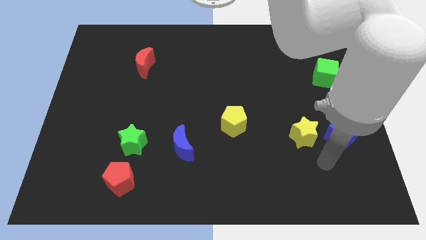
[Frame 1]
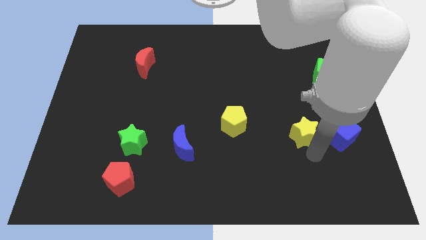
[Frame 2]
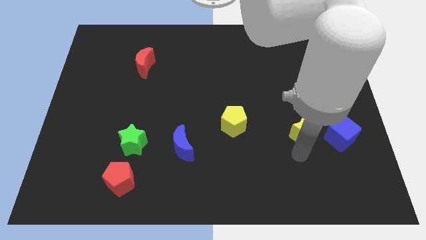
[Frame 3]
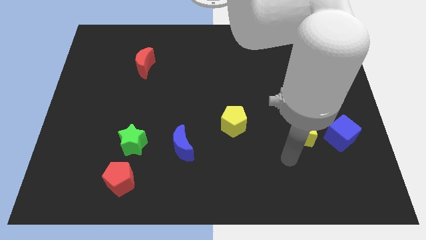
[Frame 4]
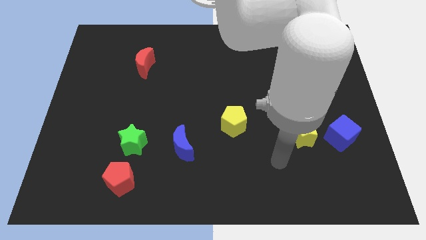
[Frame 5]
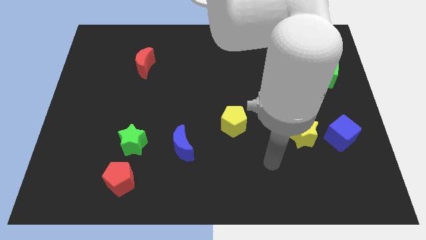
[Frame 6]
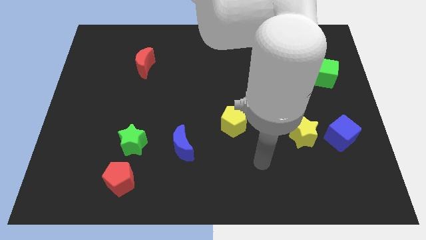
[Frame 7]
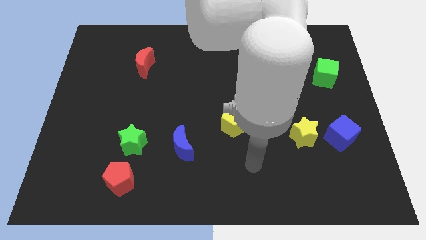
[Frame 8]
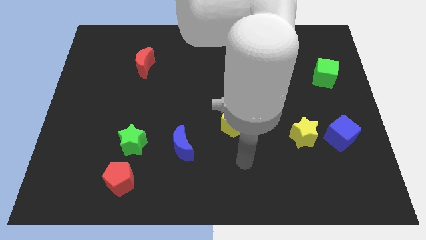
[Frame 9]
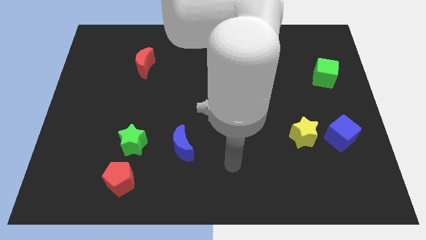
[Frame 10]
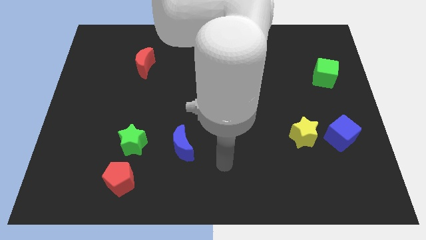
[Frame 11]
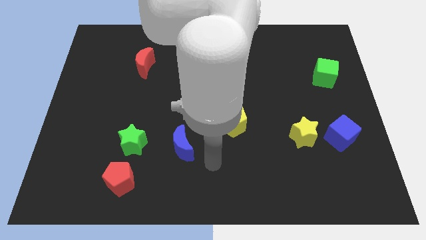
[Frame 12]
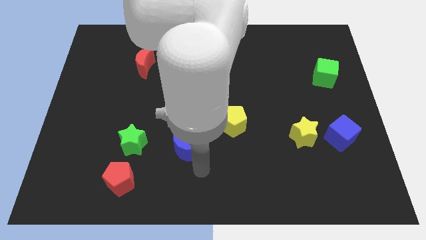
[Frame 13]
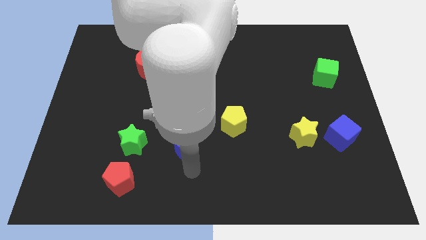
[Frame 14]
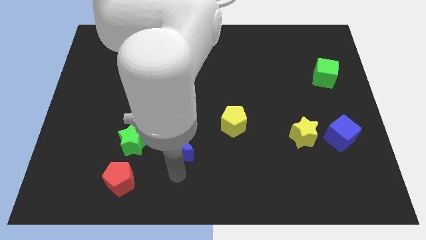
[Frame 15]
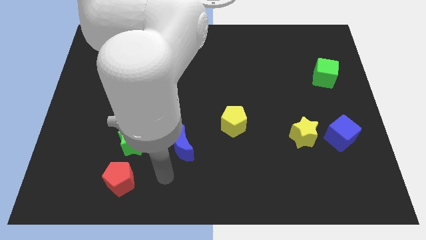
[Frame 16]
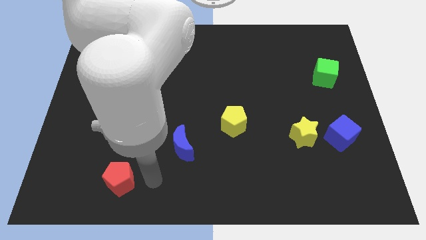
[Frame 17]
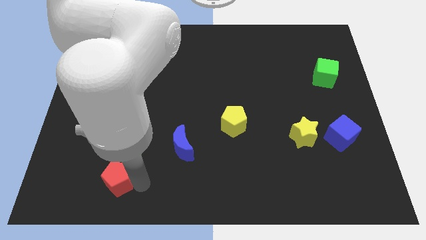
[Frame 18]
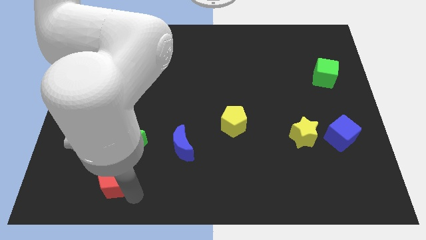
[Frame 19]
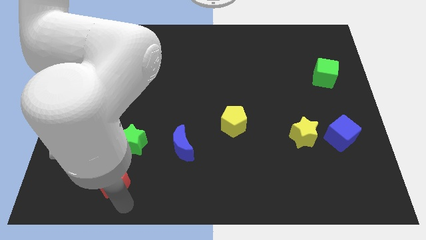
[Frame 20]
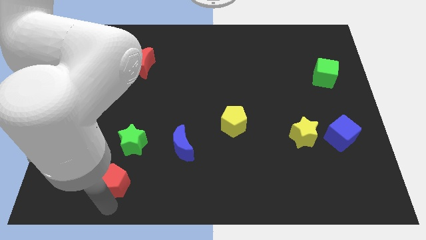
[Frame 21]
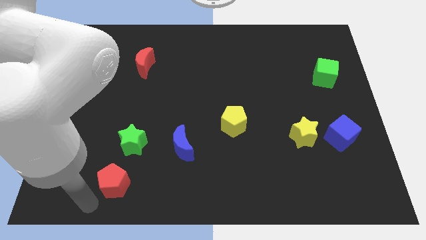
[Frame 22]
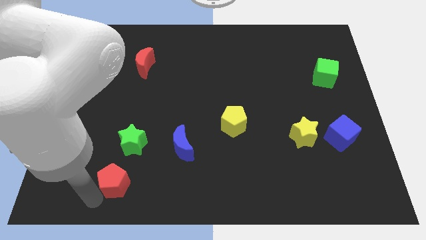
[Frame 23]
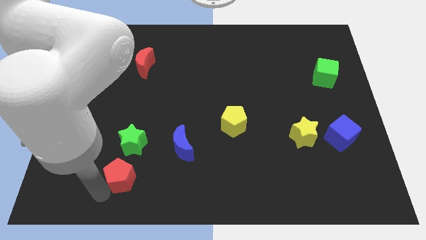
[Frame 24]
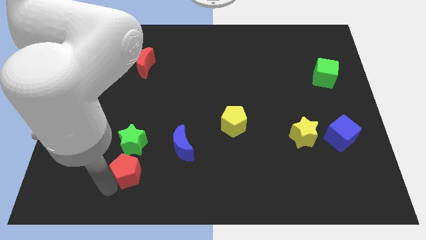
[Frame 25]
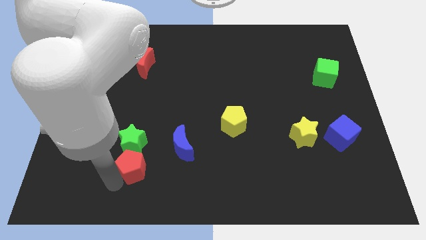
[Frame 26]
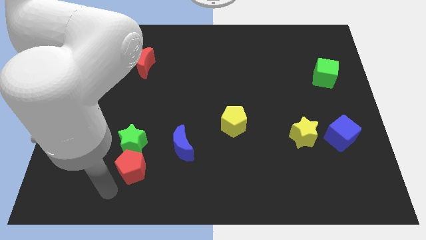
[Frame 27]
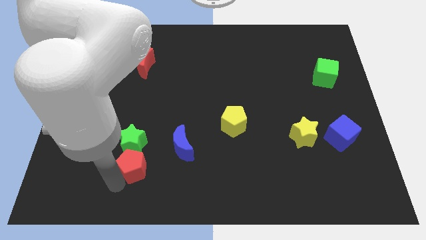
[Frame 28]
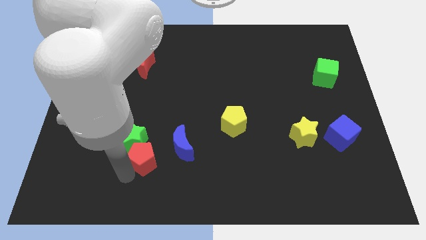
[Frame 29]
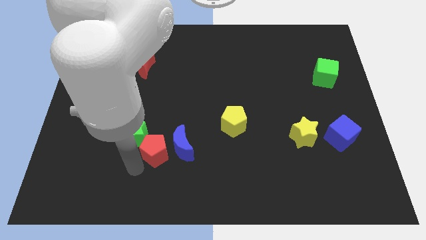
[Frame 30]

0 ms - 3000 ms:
push the red pentagon diagonally up and to the right a bit

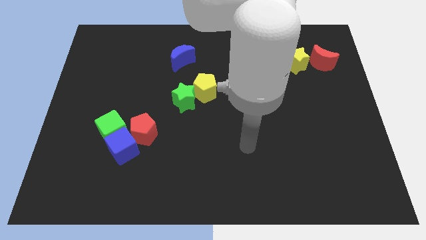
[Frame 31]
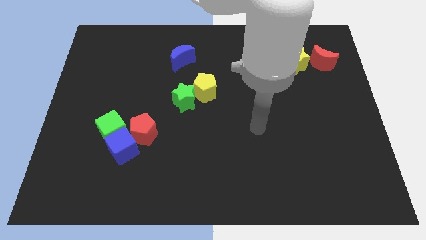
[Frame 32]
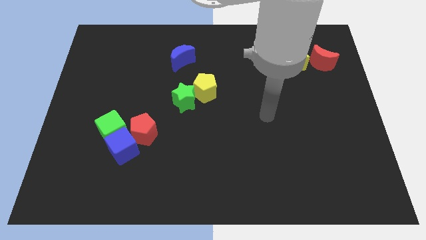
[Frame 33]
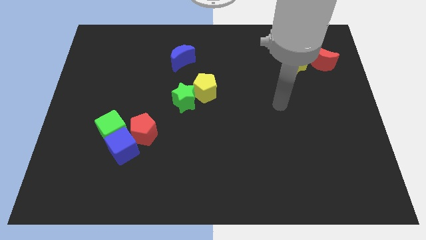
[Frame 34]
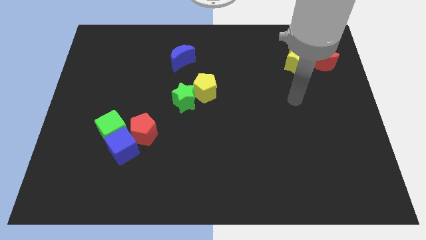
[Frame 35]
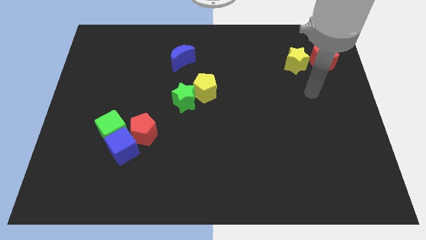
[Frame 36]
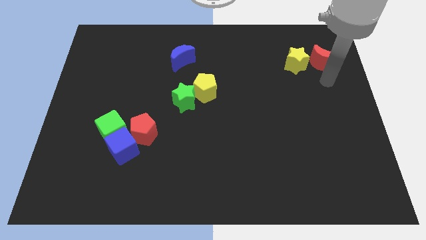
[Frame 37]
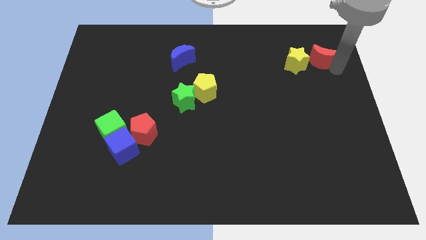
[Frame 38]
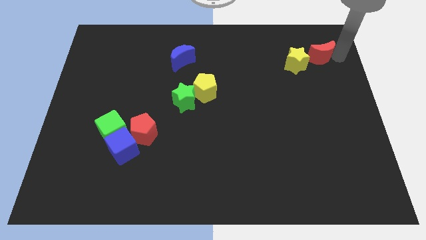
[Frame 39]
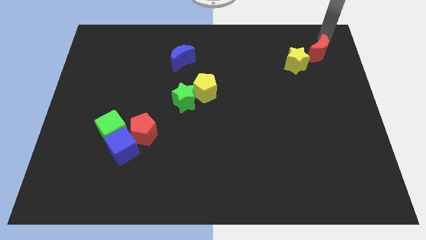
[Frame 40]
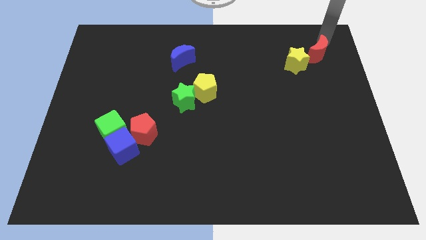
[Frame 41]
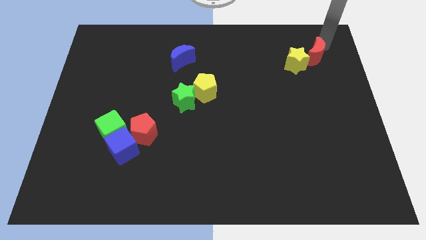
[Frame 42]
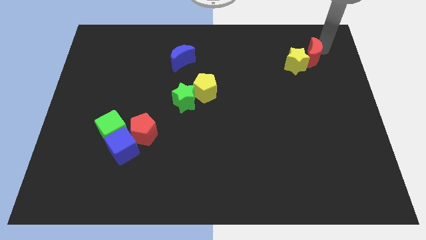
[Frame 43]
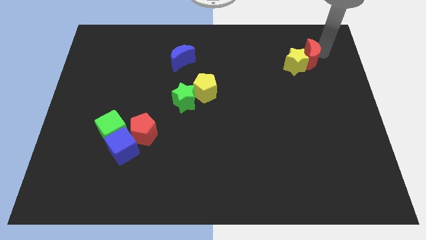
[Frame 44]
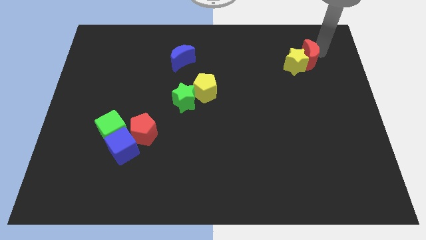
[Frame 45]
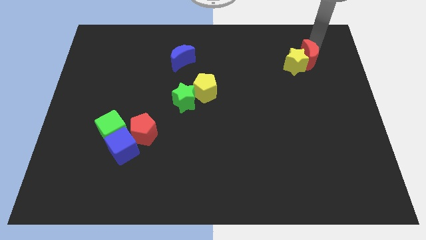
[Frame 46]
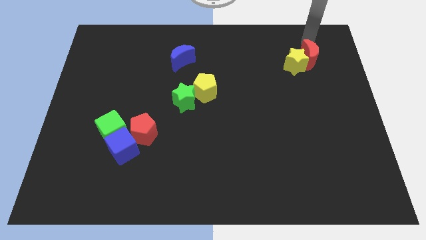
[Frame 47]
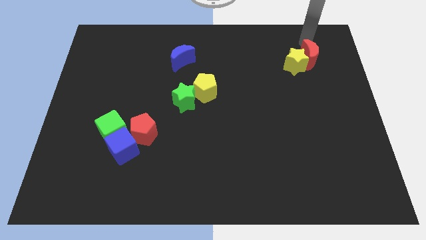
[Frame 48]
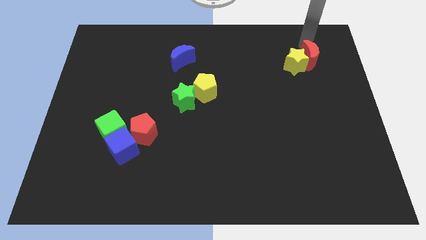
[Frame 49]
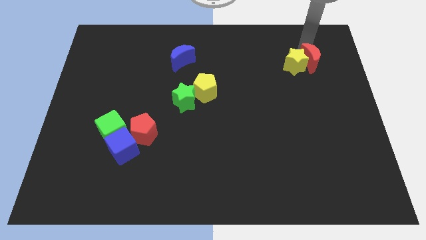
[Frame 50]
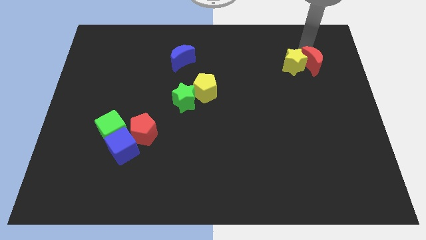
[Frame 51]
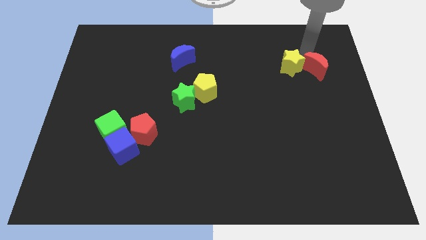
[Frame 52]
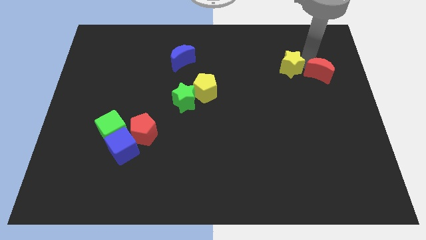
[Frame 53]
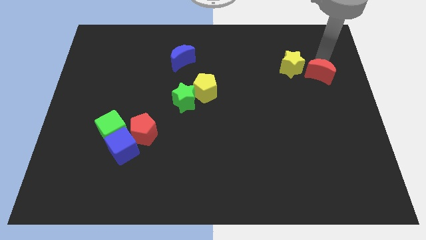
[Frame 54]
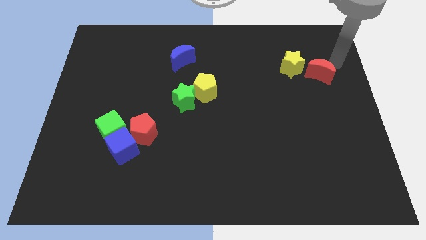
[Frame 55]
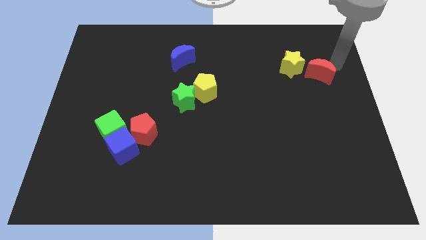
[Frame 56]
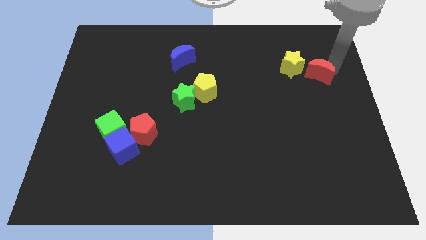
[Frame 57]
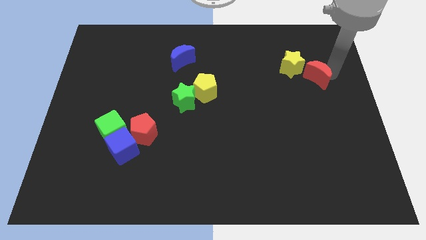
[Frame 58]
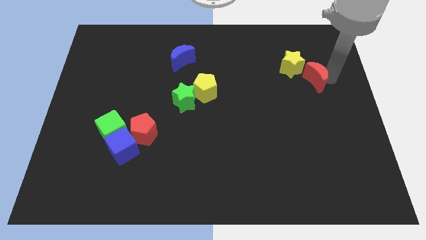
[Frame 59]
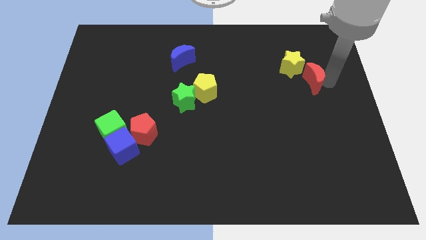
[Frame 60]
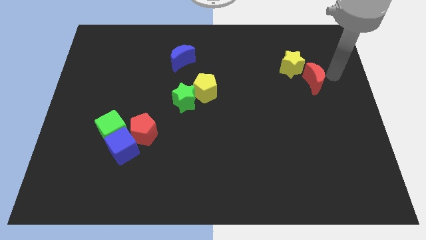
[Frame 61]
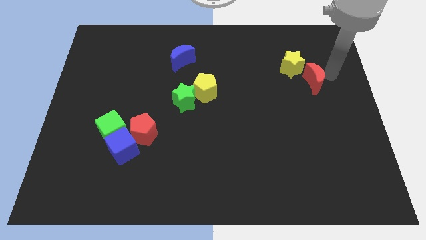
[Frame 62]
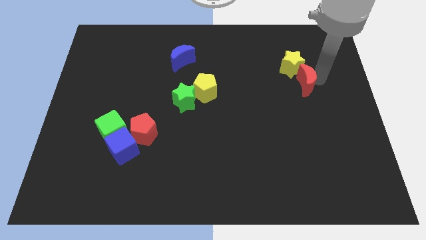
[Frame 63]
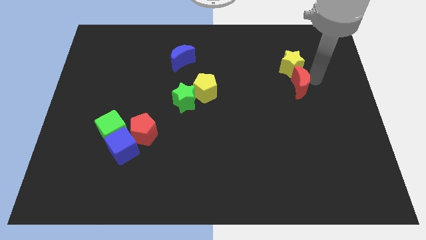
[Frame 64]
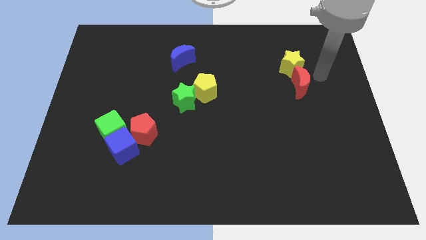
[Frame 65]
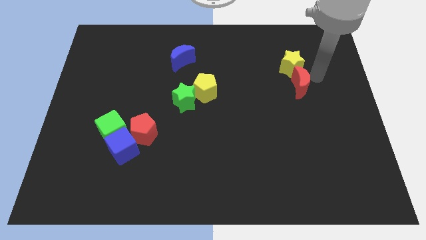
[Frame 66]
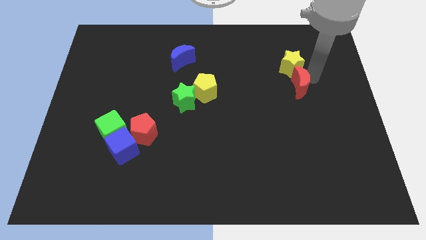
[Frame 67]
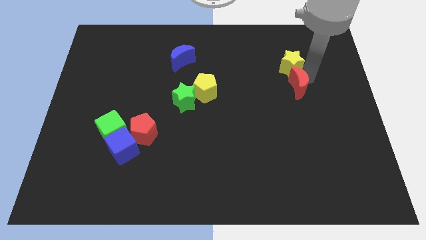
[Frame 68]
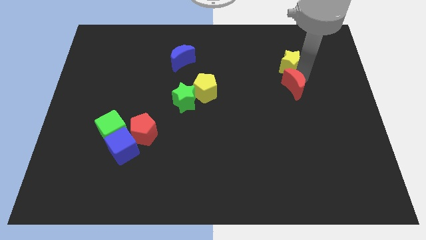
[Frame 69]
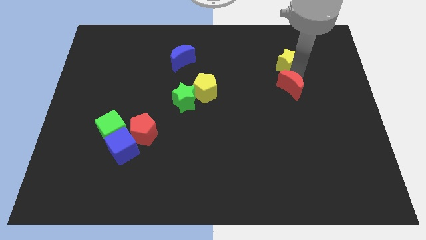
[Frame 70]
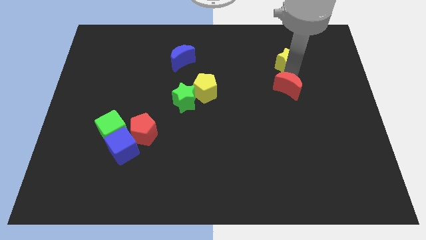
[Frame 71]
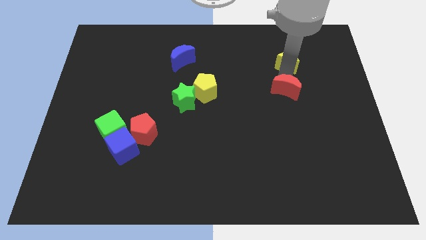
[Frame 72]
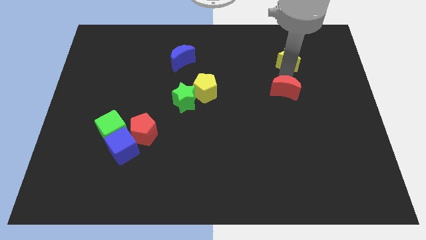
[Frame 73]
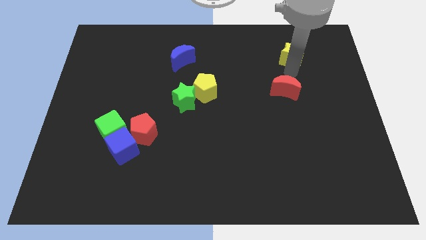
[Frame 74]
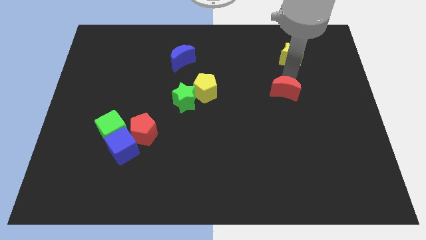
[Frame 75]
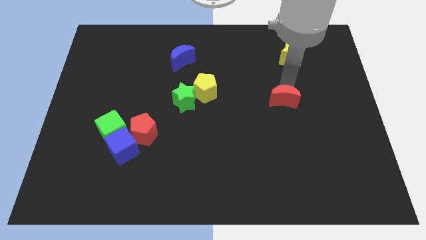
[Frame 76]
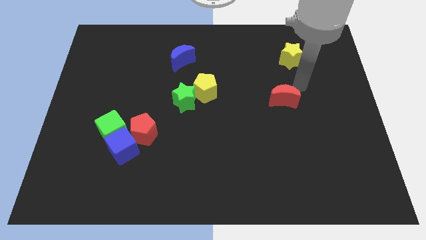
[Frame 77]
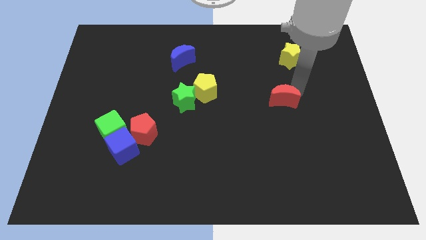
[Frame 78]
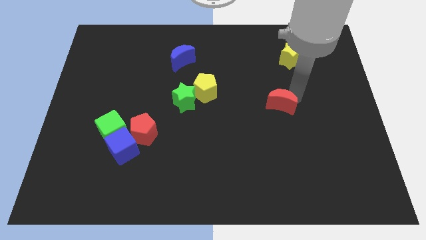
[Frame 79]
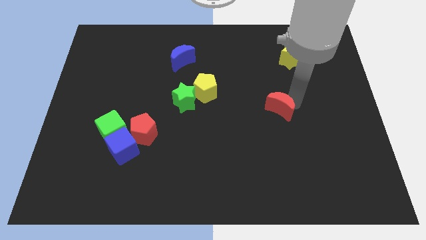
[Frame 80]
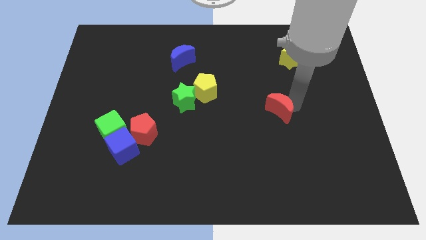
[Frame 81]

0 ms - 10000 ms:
slide the red moon down and left diagonally
